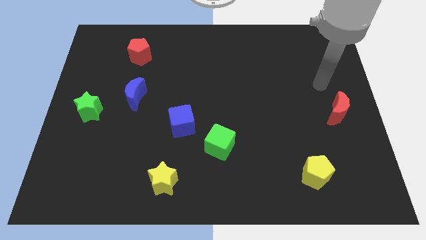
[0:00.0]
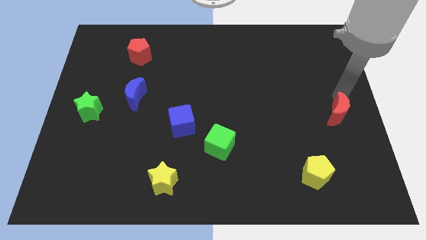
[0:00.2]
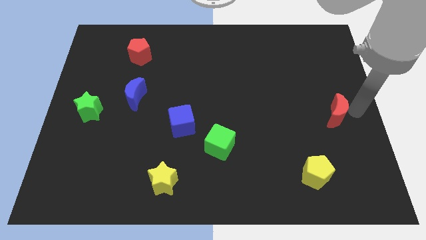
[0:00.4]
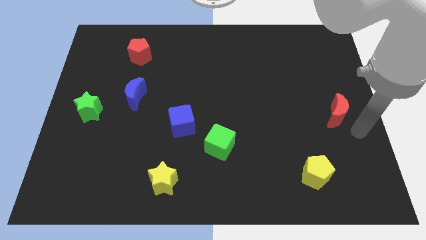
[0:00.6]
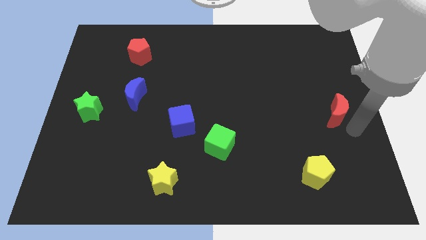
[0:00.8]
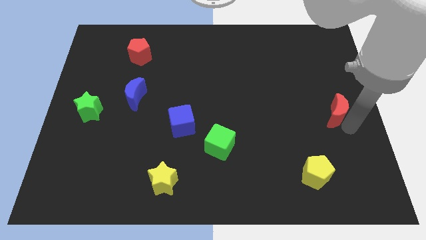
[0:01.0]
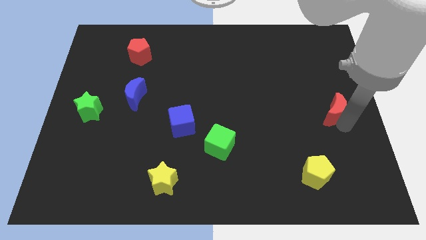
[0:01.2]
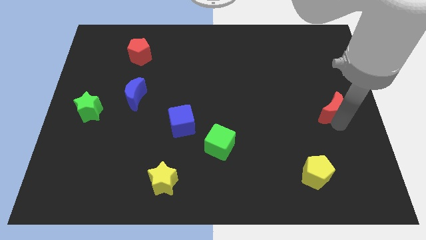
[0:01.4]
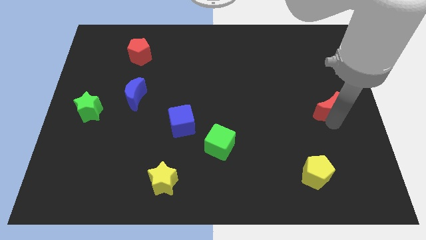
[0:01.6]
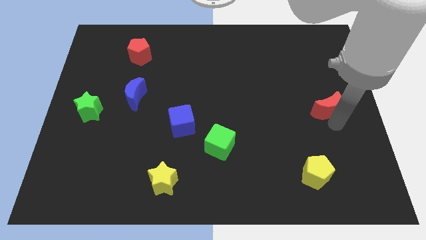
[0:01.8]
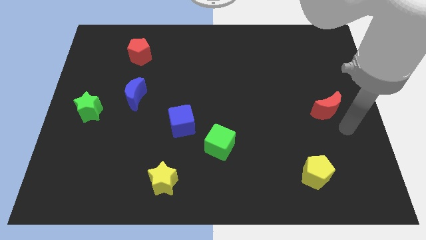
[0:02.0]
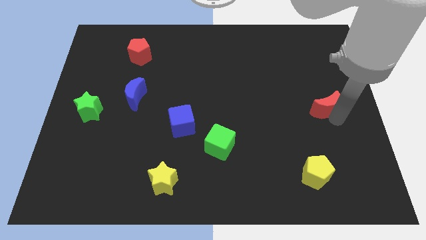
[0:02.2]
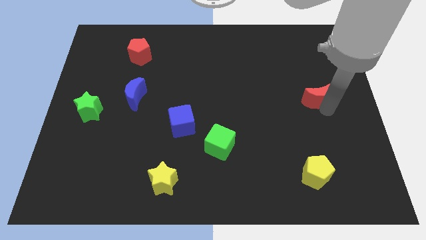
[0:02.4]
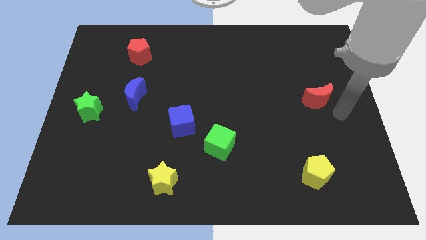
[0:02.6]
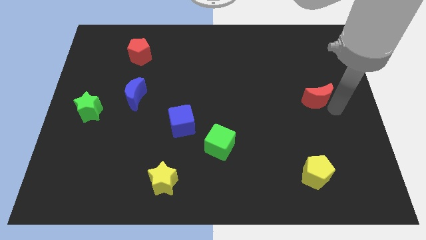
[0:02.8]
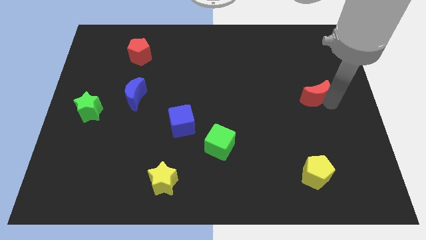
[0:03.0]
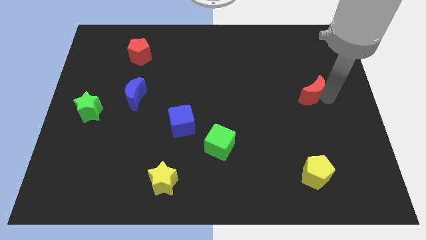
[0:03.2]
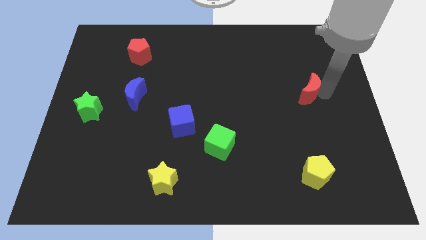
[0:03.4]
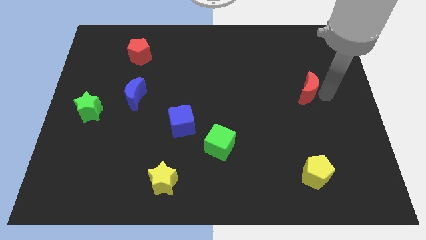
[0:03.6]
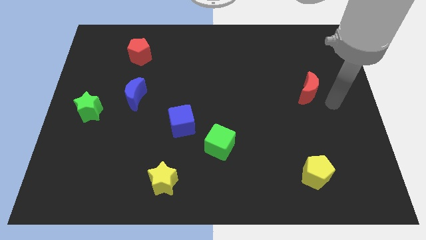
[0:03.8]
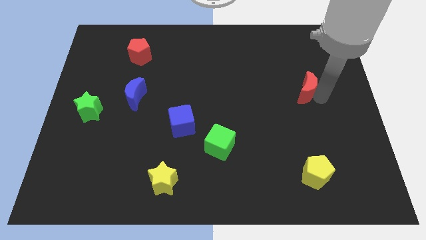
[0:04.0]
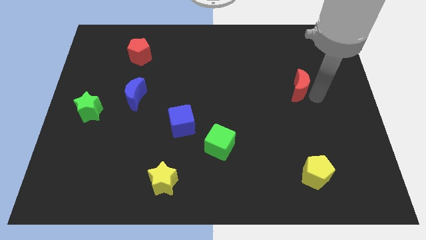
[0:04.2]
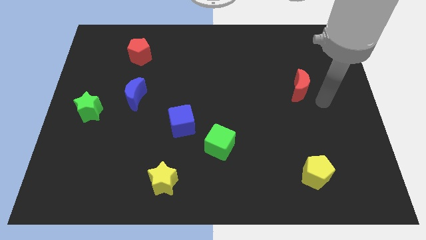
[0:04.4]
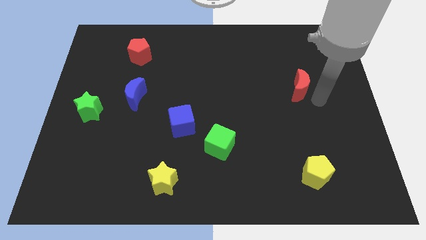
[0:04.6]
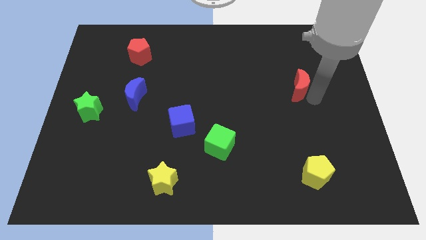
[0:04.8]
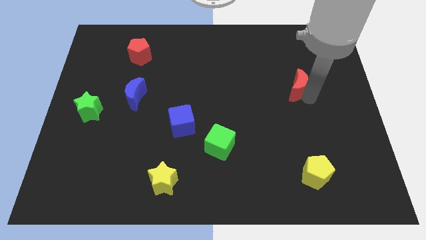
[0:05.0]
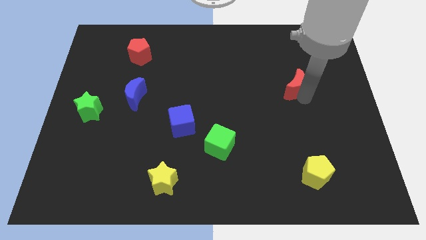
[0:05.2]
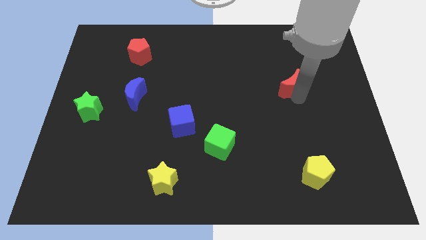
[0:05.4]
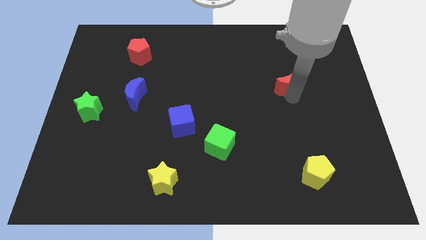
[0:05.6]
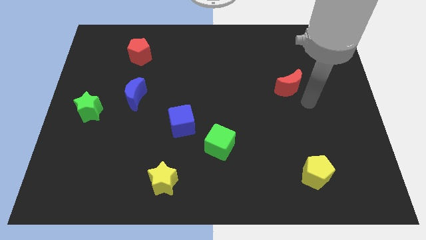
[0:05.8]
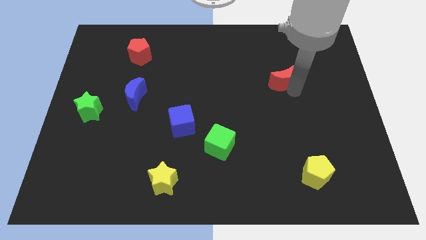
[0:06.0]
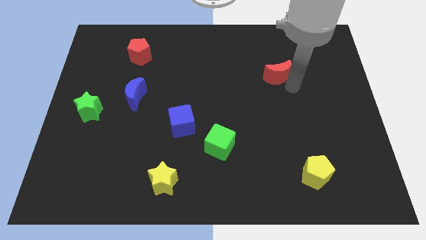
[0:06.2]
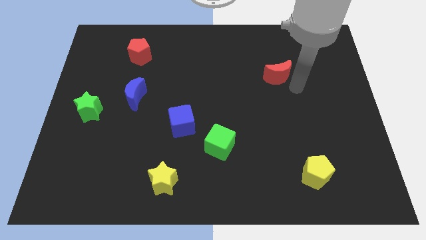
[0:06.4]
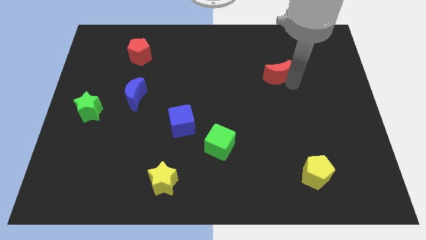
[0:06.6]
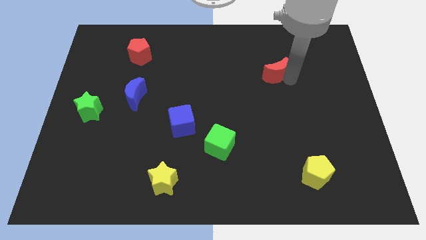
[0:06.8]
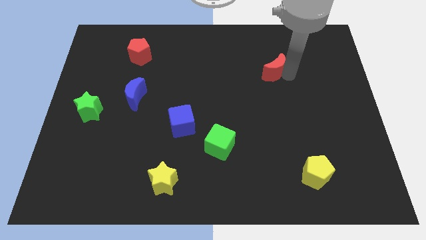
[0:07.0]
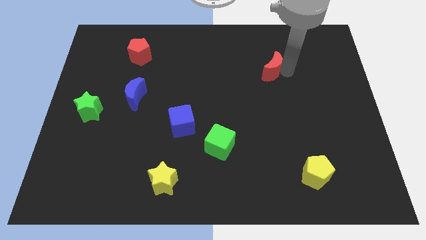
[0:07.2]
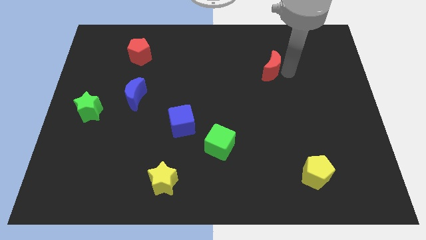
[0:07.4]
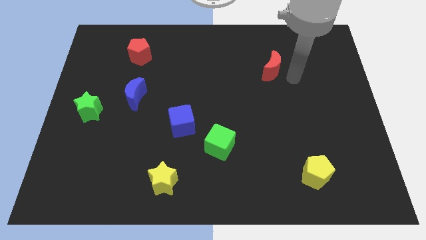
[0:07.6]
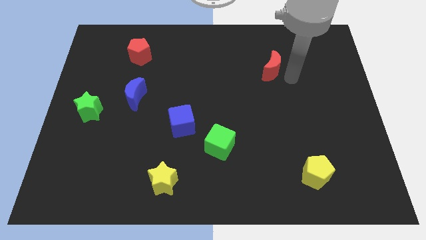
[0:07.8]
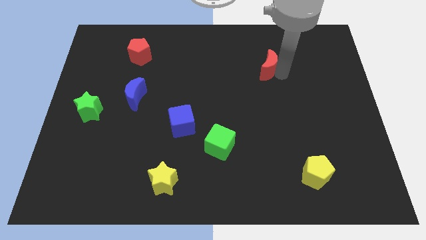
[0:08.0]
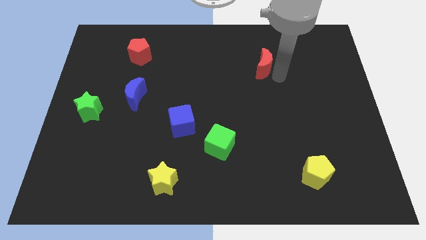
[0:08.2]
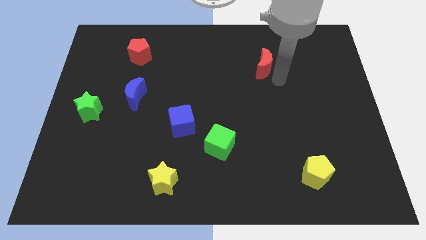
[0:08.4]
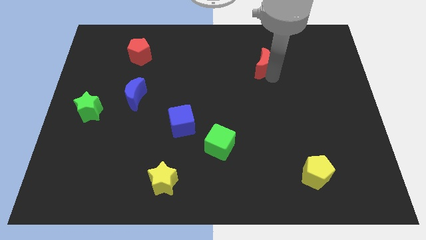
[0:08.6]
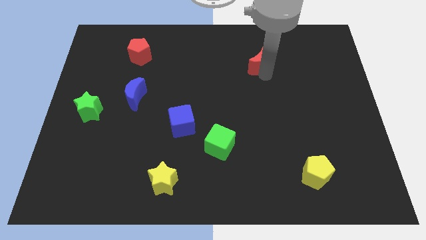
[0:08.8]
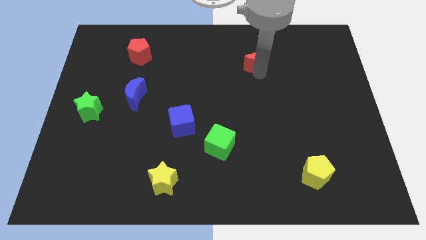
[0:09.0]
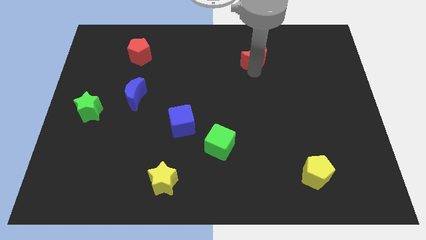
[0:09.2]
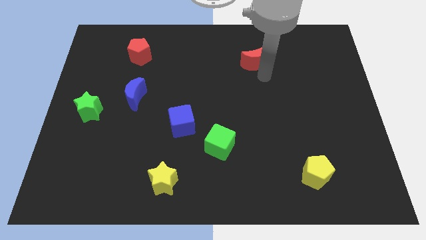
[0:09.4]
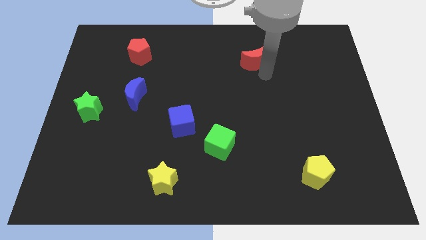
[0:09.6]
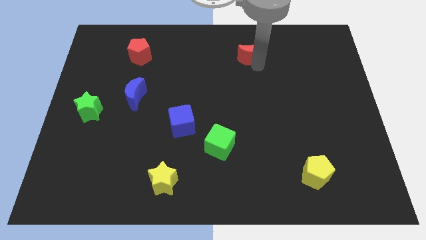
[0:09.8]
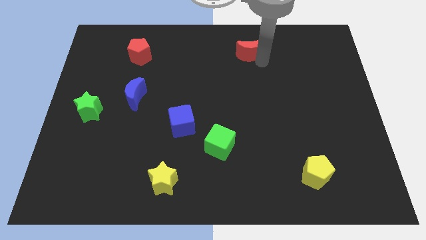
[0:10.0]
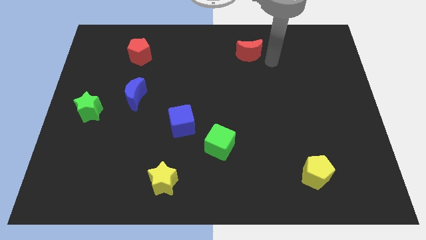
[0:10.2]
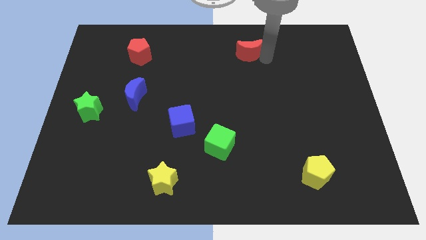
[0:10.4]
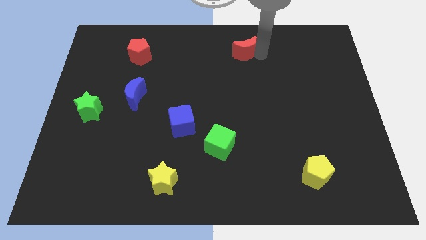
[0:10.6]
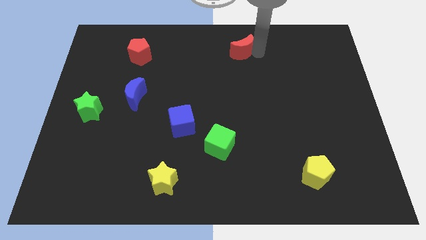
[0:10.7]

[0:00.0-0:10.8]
move the red moon to the towards your base

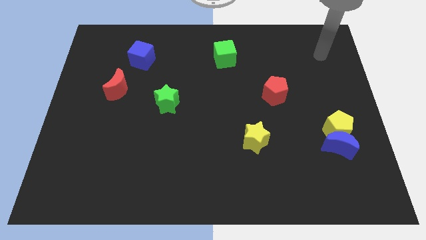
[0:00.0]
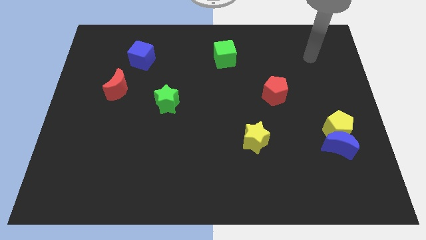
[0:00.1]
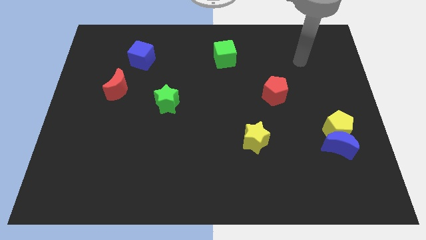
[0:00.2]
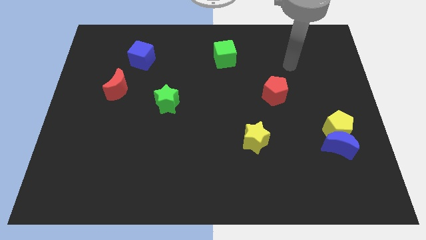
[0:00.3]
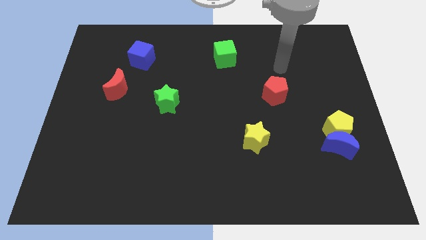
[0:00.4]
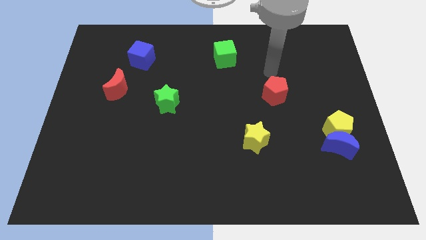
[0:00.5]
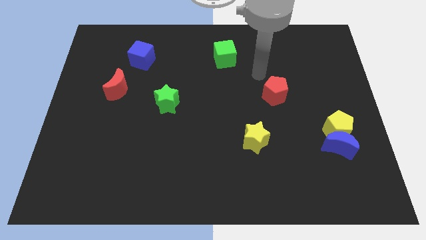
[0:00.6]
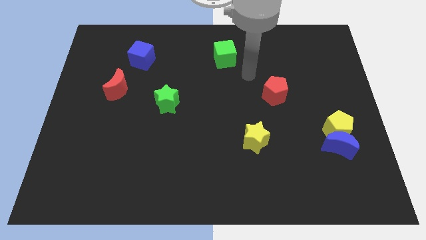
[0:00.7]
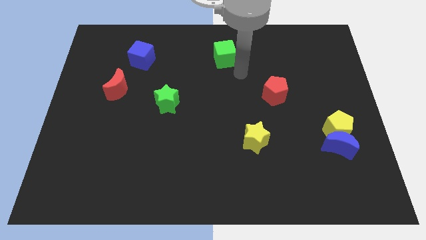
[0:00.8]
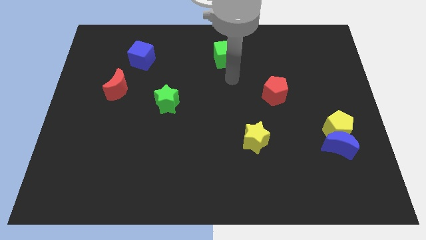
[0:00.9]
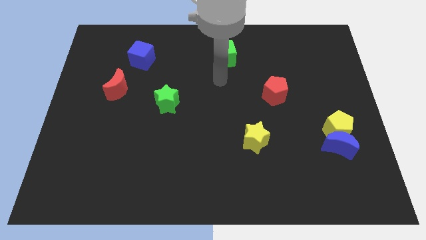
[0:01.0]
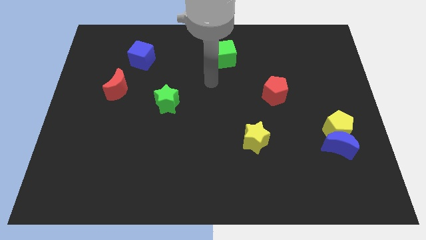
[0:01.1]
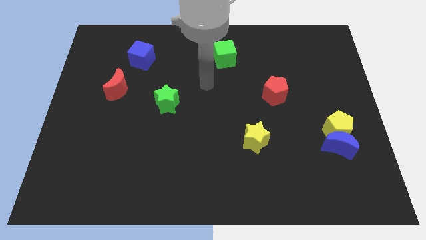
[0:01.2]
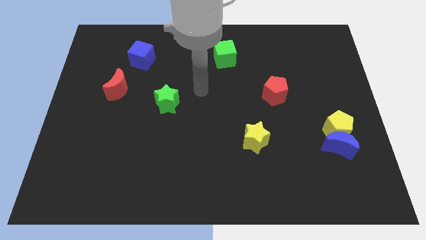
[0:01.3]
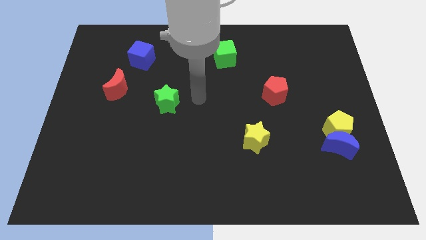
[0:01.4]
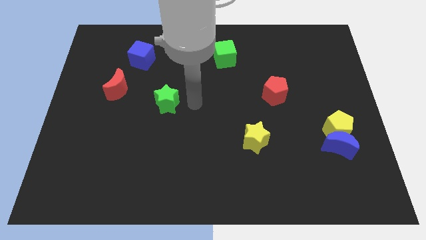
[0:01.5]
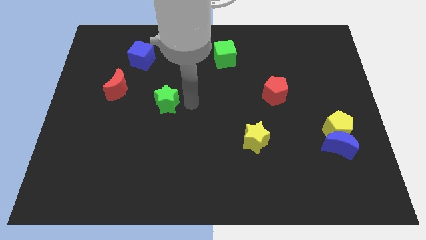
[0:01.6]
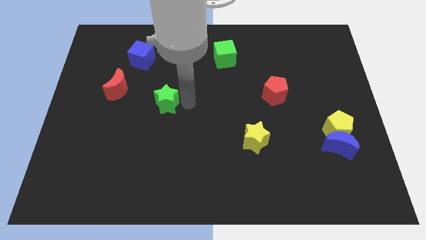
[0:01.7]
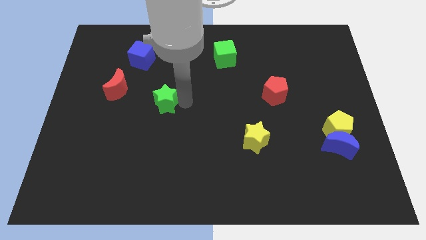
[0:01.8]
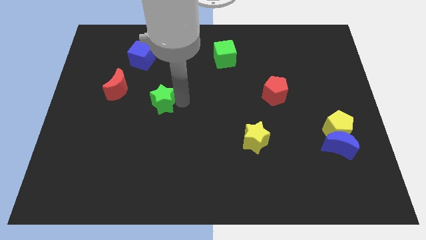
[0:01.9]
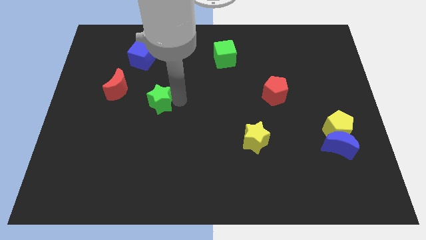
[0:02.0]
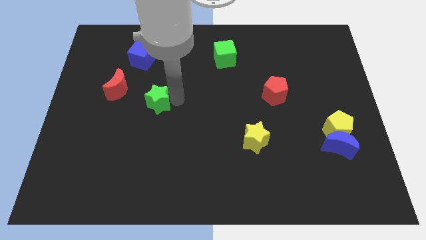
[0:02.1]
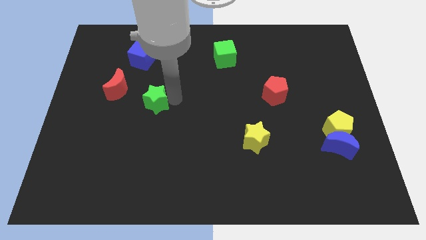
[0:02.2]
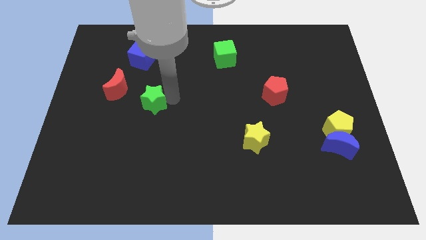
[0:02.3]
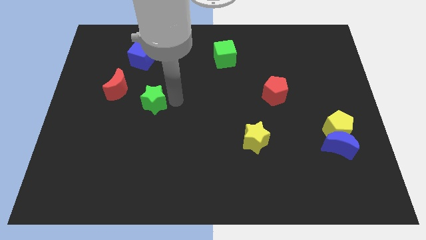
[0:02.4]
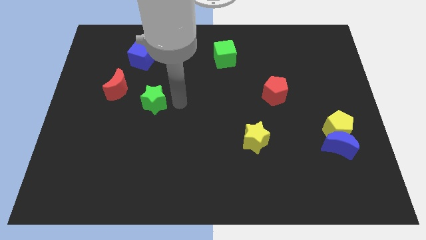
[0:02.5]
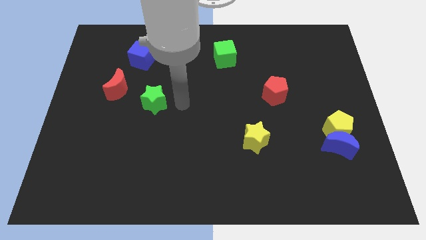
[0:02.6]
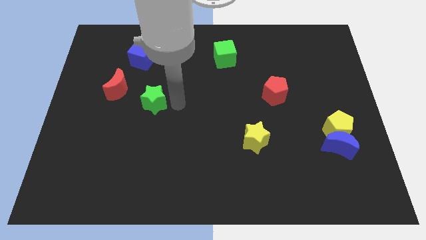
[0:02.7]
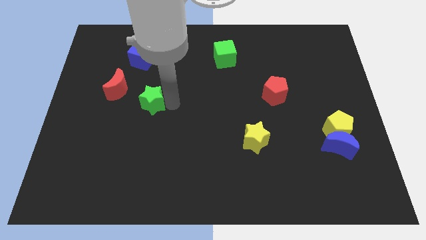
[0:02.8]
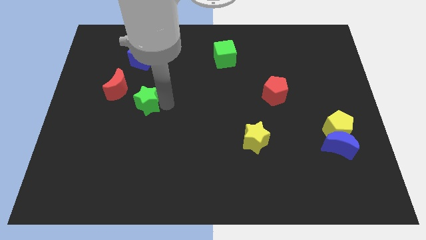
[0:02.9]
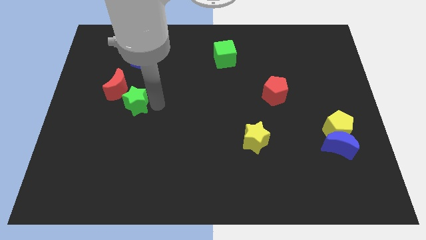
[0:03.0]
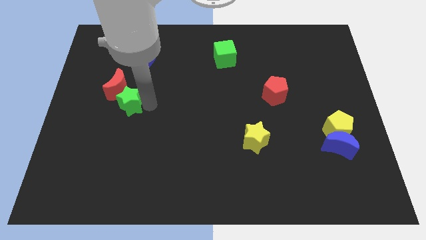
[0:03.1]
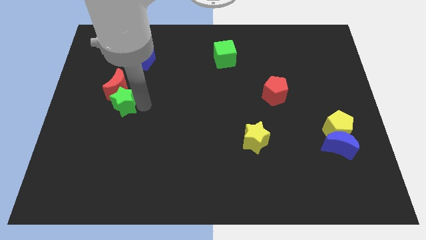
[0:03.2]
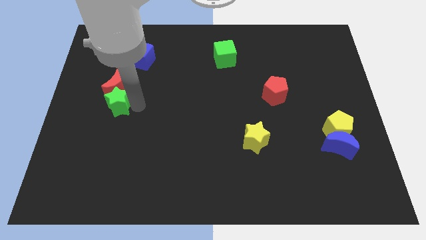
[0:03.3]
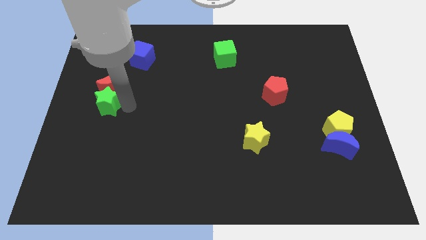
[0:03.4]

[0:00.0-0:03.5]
put the green star to the center left
